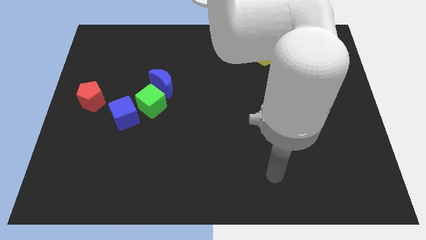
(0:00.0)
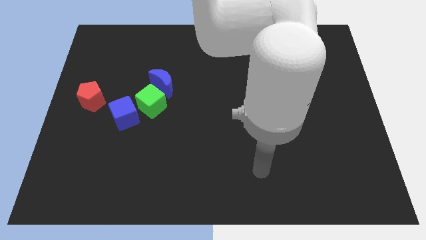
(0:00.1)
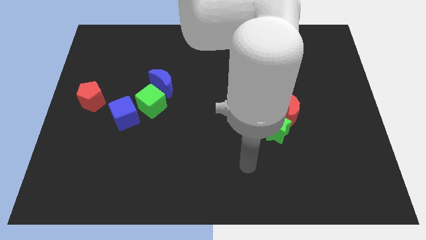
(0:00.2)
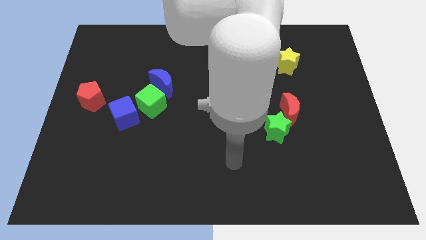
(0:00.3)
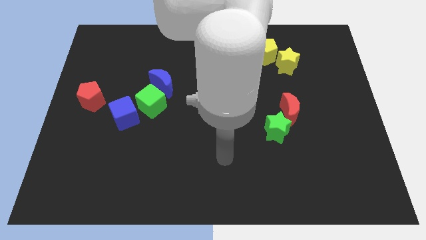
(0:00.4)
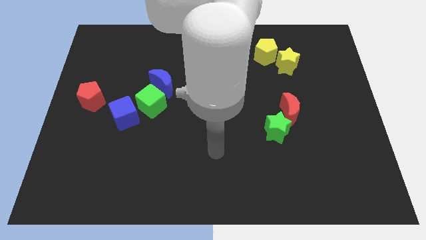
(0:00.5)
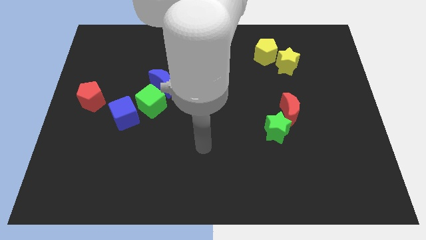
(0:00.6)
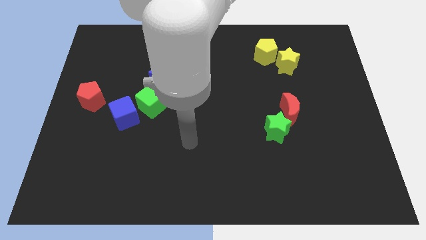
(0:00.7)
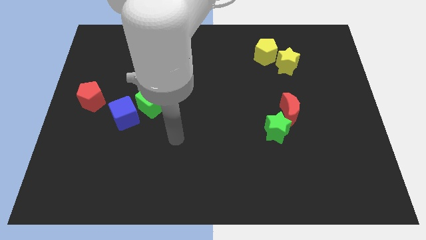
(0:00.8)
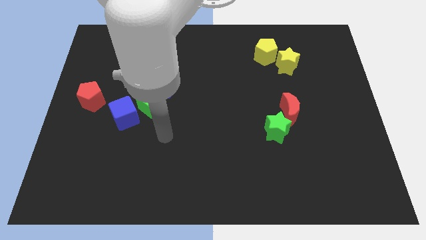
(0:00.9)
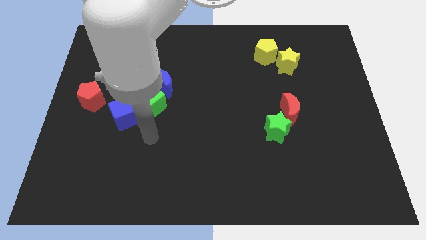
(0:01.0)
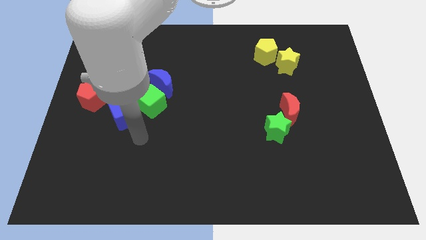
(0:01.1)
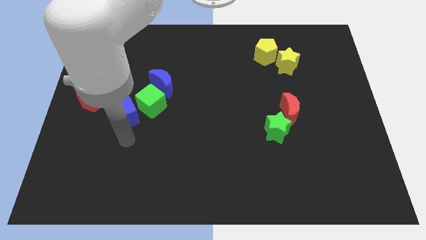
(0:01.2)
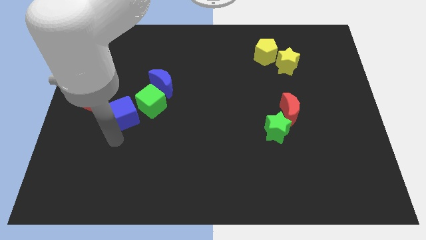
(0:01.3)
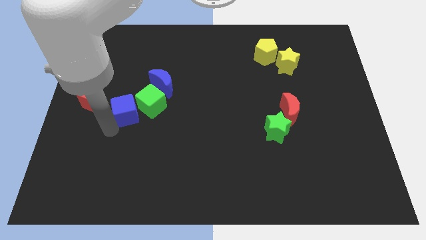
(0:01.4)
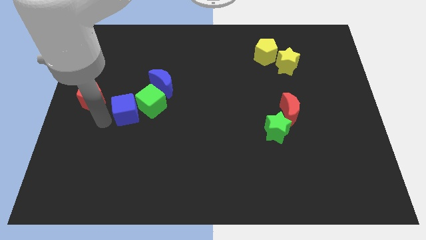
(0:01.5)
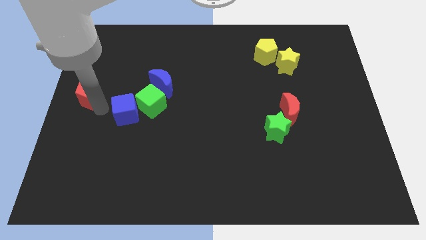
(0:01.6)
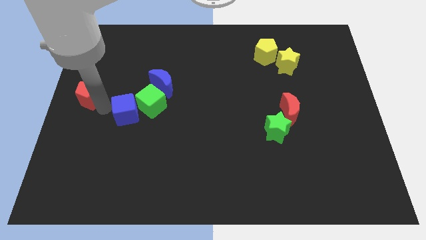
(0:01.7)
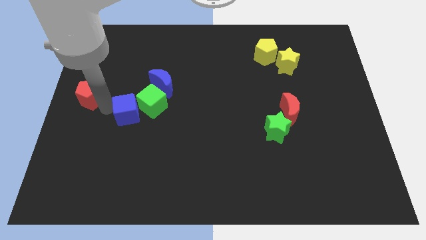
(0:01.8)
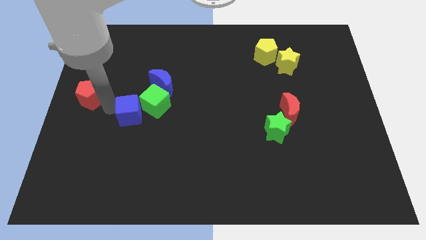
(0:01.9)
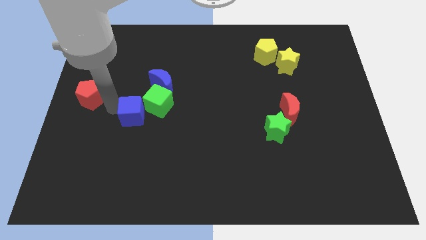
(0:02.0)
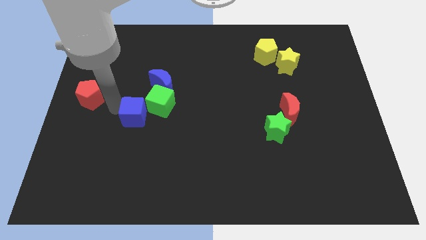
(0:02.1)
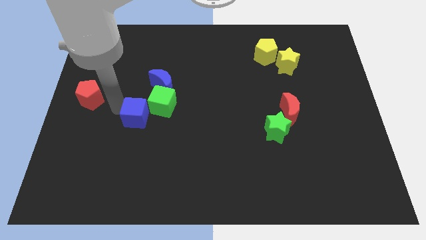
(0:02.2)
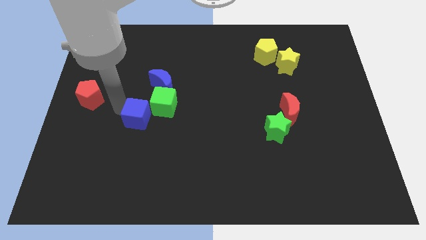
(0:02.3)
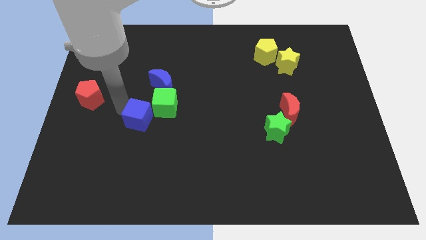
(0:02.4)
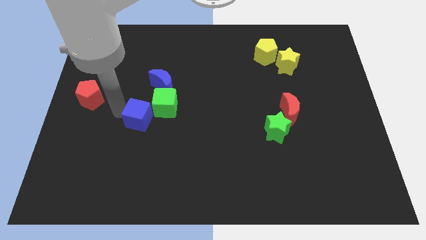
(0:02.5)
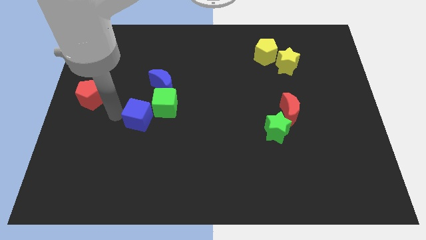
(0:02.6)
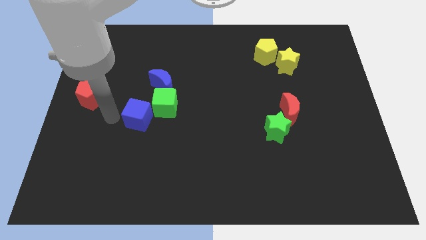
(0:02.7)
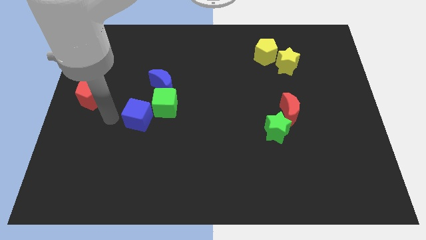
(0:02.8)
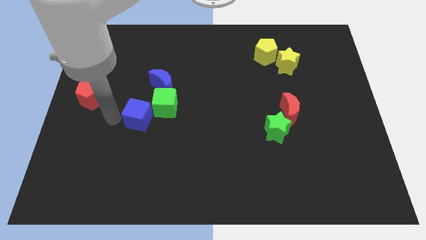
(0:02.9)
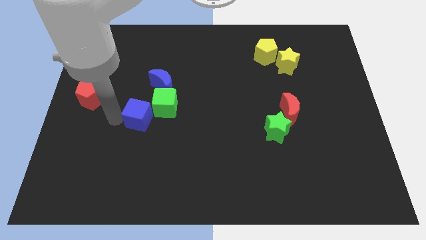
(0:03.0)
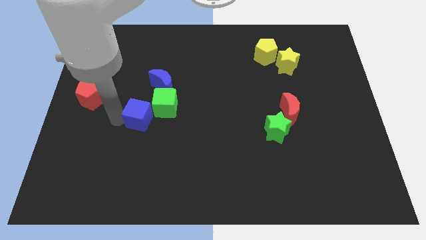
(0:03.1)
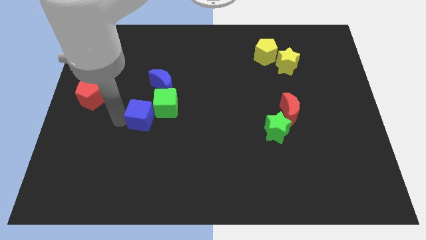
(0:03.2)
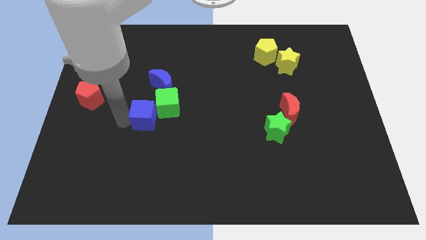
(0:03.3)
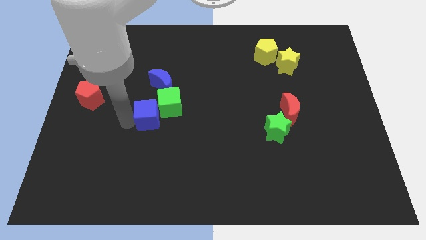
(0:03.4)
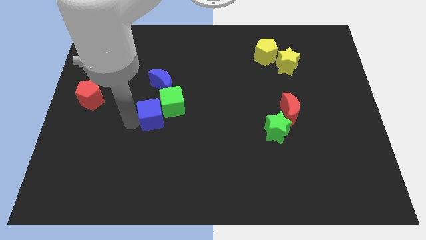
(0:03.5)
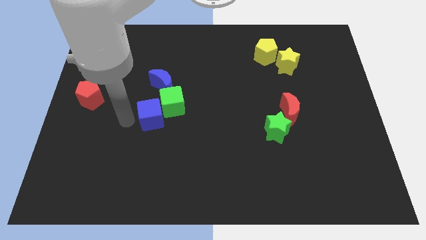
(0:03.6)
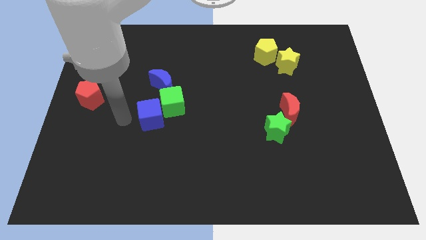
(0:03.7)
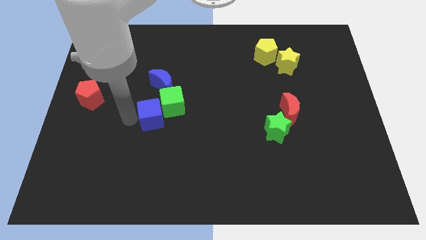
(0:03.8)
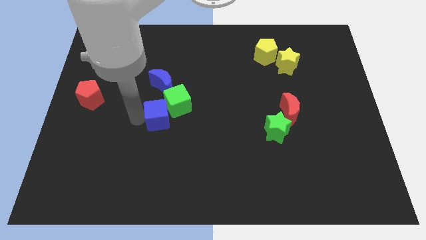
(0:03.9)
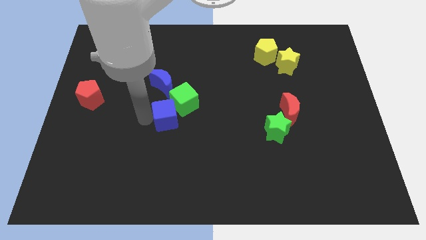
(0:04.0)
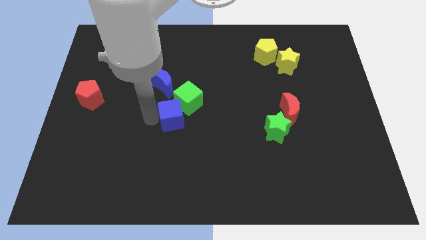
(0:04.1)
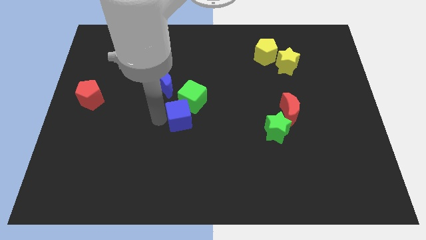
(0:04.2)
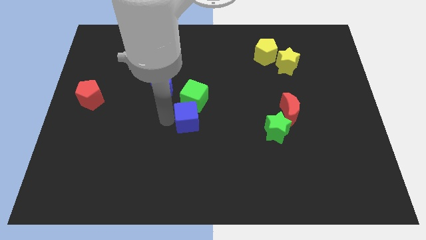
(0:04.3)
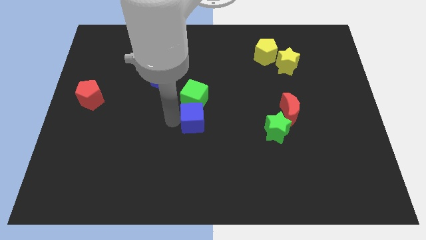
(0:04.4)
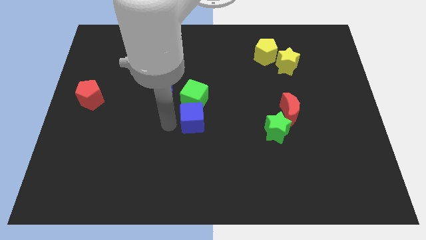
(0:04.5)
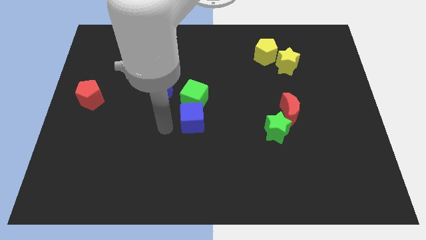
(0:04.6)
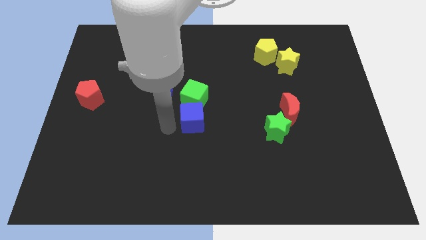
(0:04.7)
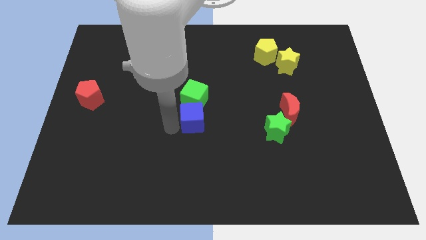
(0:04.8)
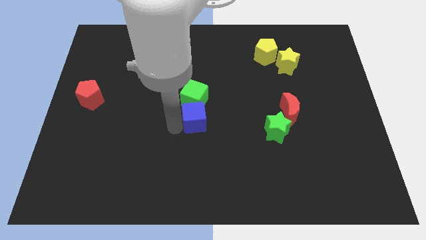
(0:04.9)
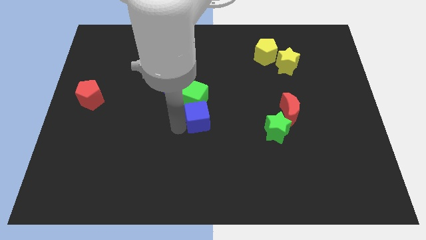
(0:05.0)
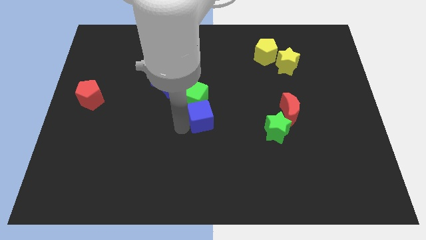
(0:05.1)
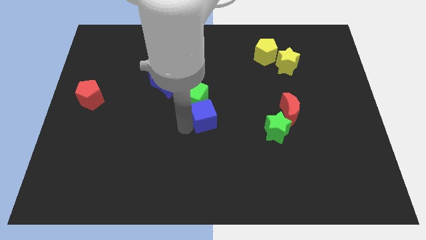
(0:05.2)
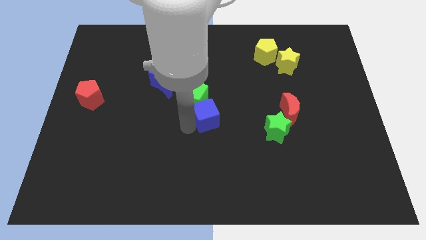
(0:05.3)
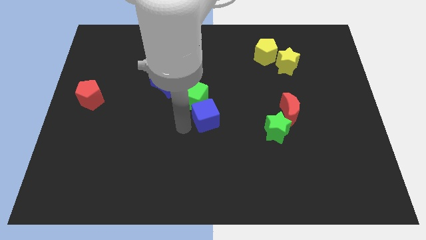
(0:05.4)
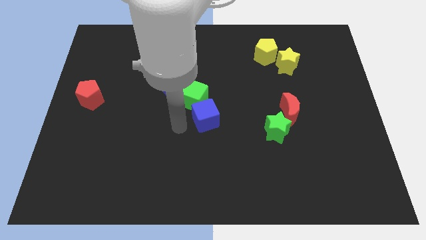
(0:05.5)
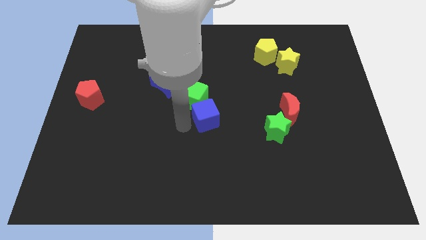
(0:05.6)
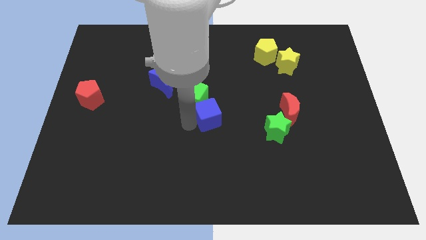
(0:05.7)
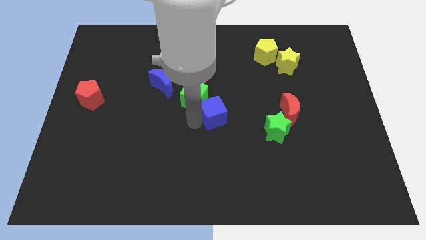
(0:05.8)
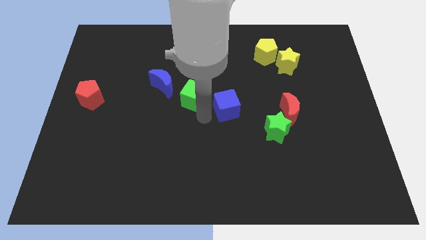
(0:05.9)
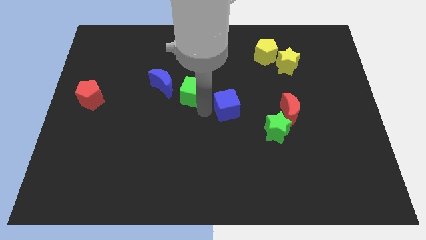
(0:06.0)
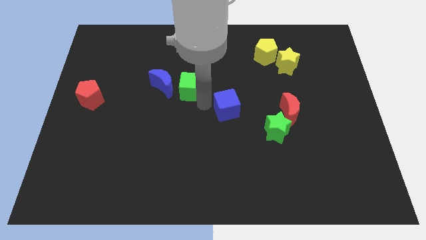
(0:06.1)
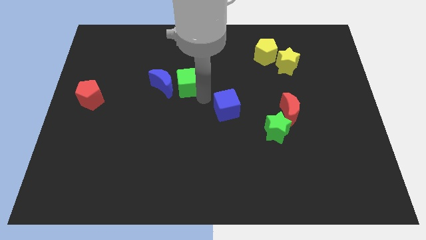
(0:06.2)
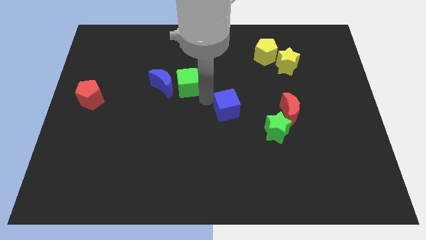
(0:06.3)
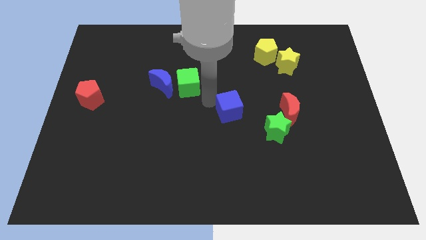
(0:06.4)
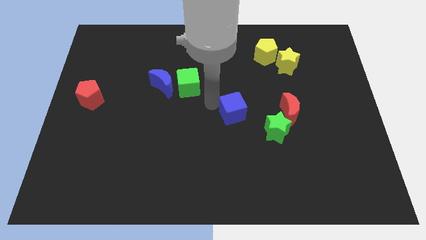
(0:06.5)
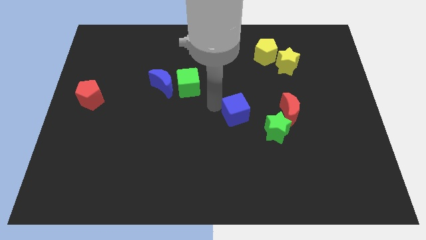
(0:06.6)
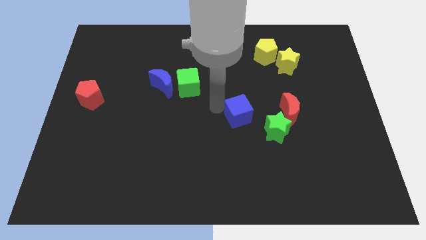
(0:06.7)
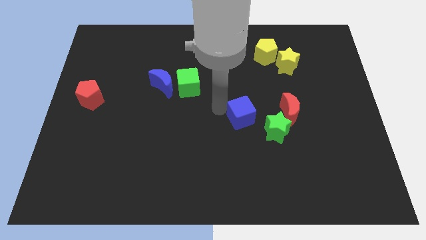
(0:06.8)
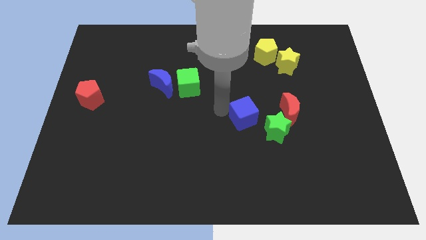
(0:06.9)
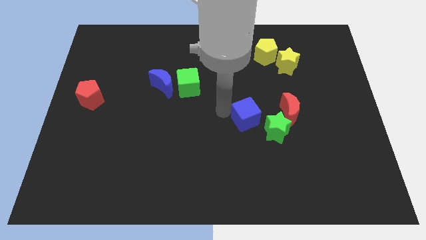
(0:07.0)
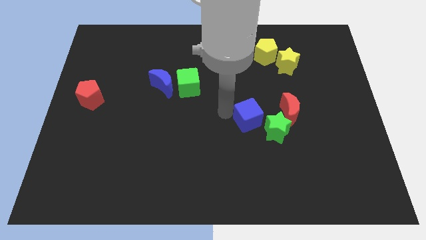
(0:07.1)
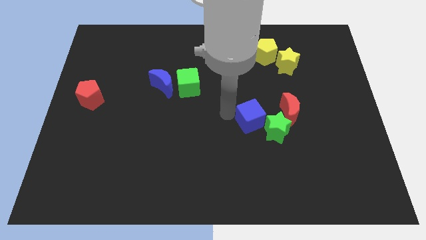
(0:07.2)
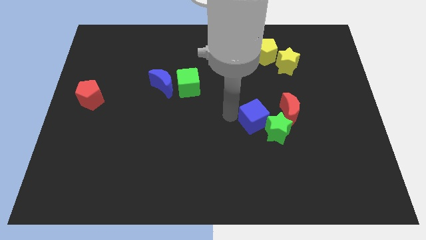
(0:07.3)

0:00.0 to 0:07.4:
push the blue cube towards the green star
